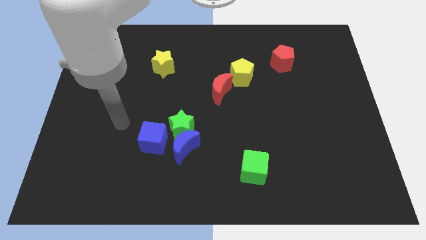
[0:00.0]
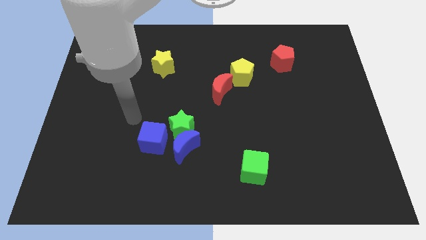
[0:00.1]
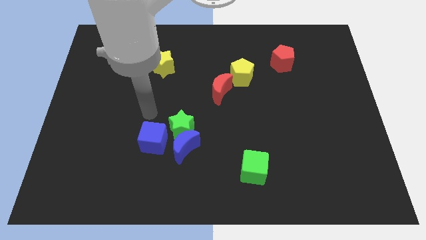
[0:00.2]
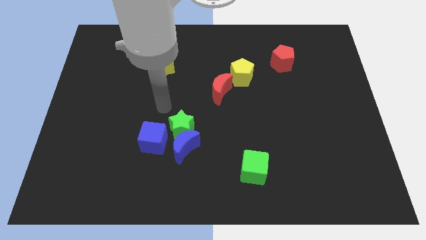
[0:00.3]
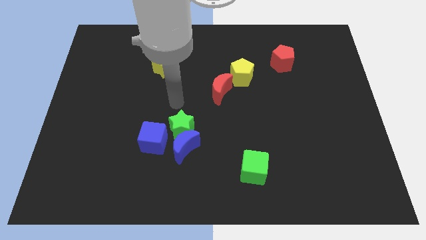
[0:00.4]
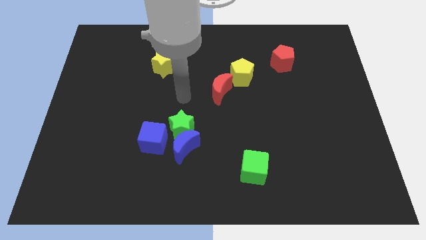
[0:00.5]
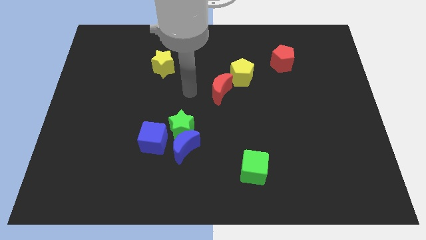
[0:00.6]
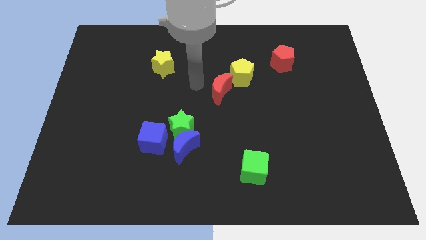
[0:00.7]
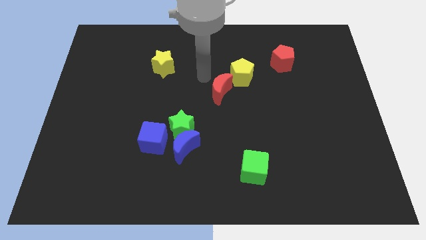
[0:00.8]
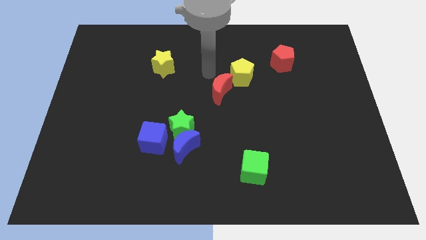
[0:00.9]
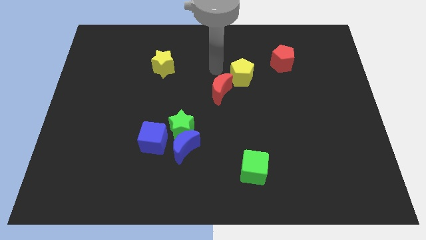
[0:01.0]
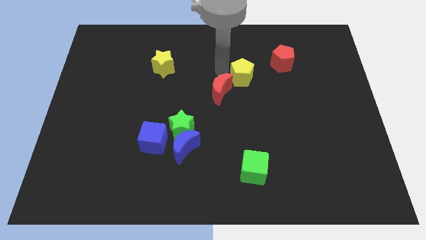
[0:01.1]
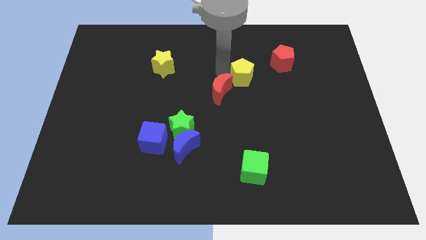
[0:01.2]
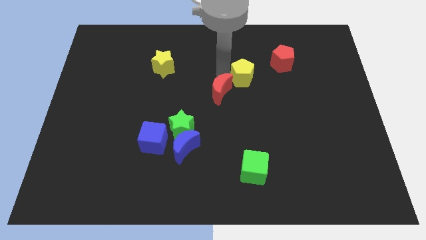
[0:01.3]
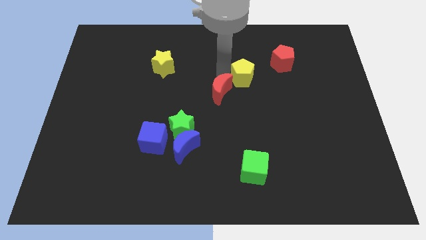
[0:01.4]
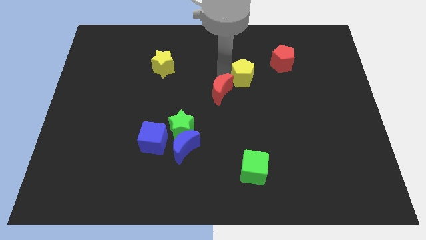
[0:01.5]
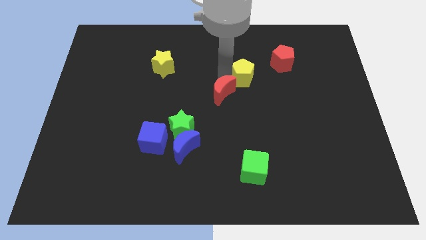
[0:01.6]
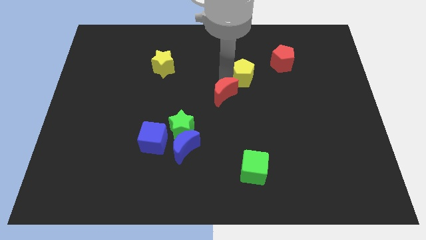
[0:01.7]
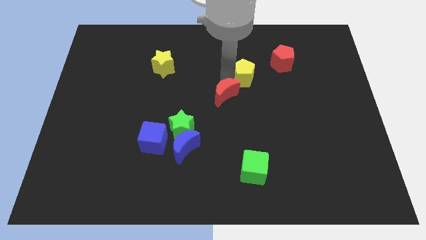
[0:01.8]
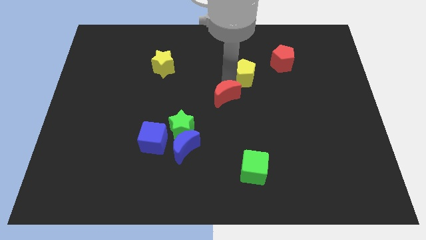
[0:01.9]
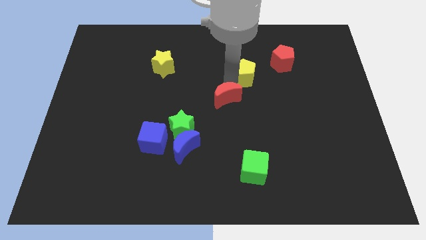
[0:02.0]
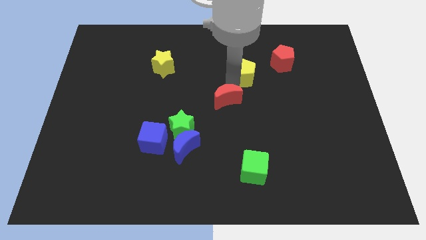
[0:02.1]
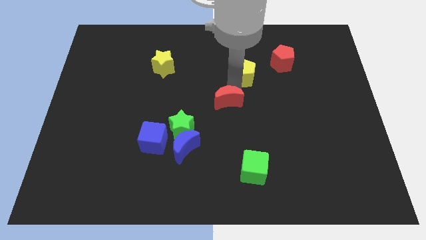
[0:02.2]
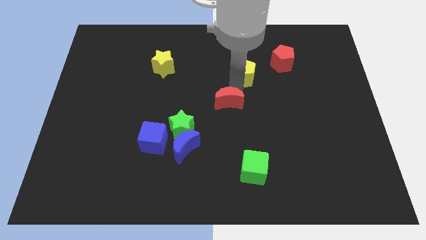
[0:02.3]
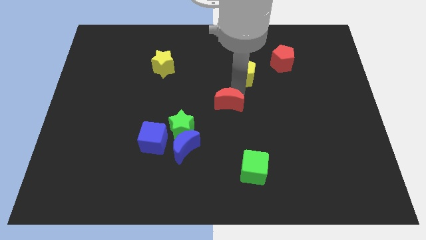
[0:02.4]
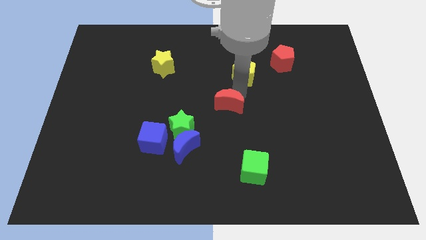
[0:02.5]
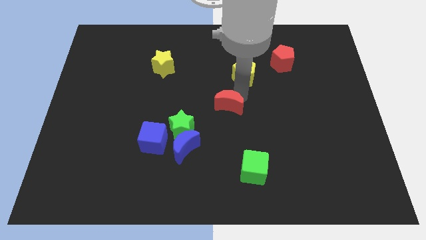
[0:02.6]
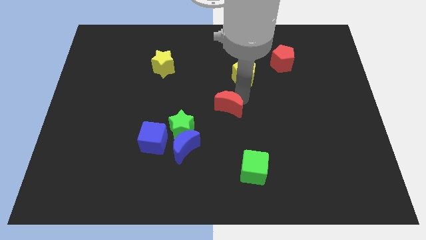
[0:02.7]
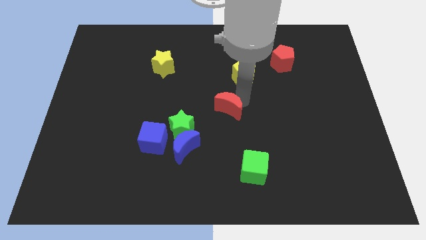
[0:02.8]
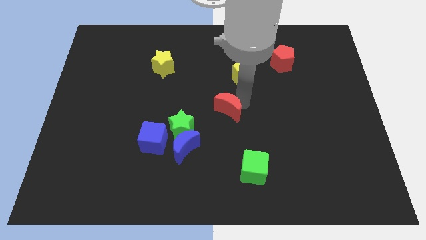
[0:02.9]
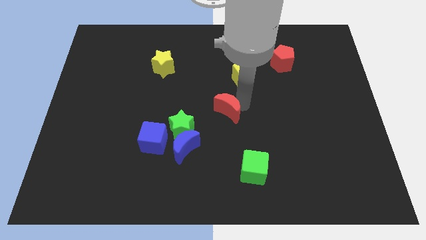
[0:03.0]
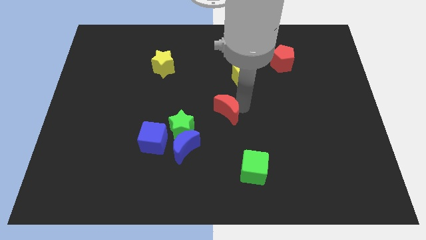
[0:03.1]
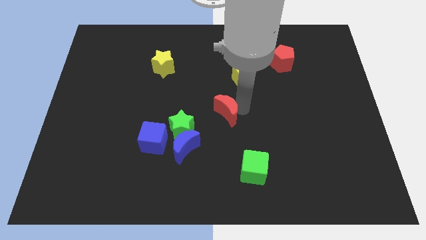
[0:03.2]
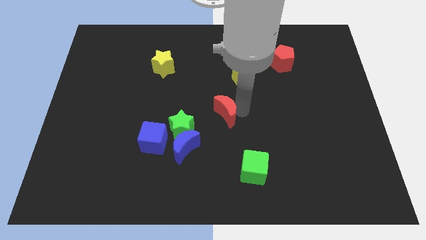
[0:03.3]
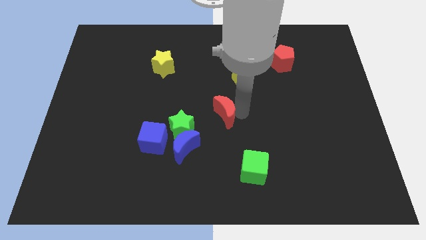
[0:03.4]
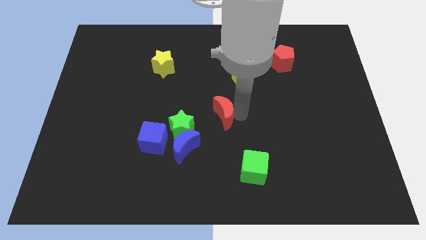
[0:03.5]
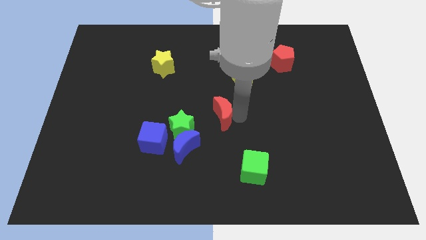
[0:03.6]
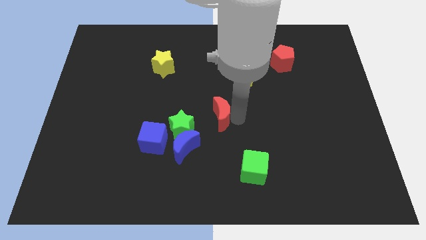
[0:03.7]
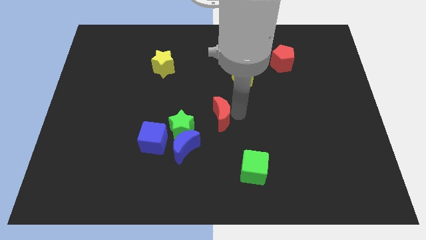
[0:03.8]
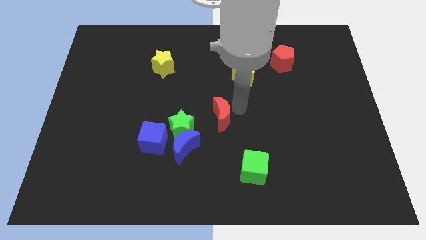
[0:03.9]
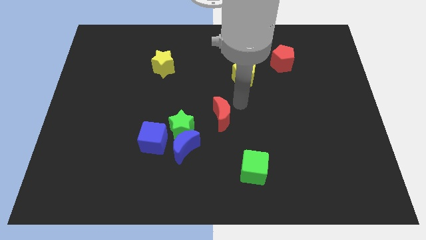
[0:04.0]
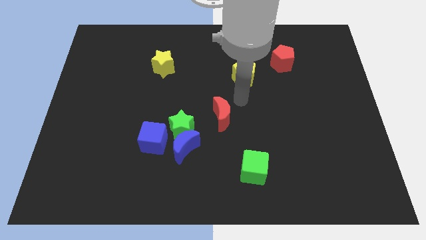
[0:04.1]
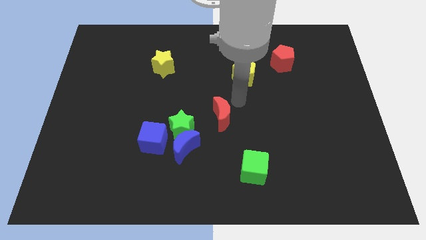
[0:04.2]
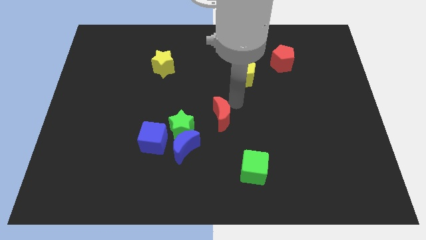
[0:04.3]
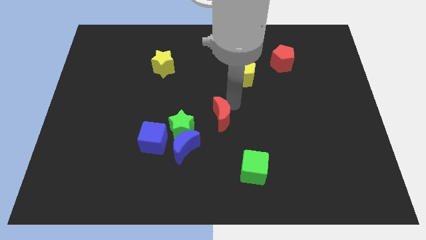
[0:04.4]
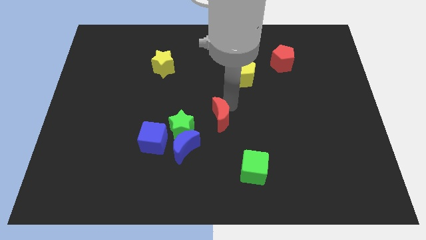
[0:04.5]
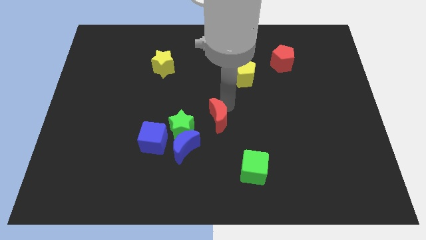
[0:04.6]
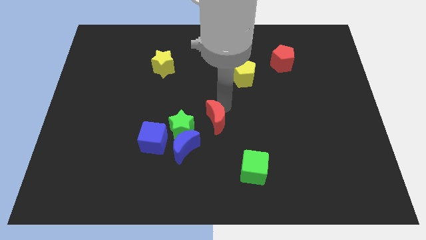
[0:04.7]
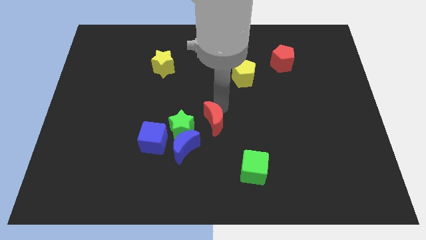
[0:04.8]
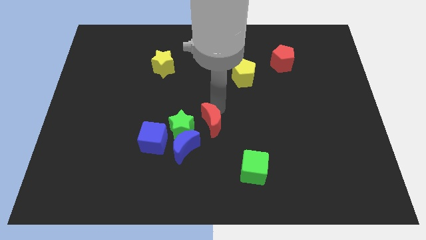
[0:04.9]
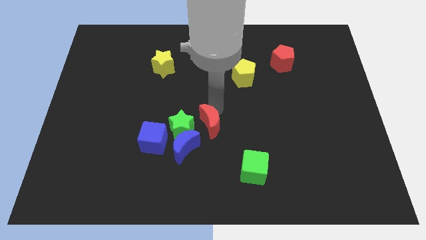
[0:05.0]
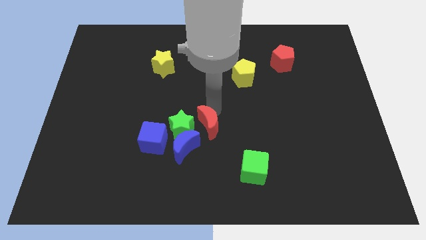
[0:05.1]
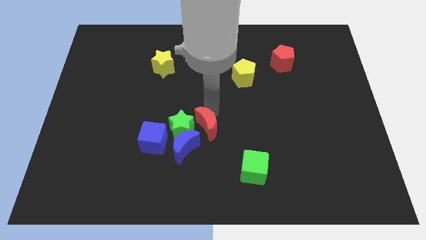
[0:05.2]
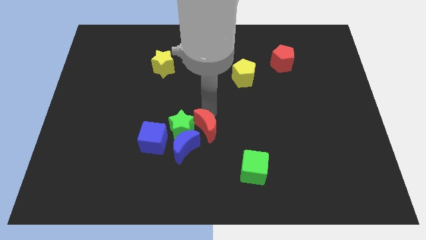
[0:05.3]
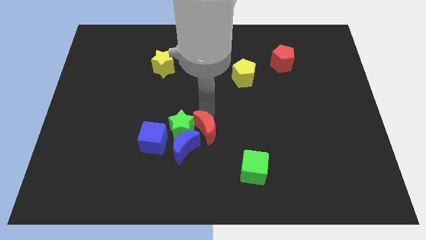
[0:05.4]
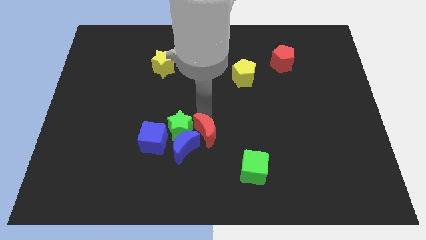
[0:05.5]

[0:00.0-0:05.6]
move the red moon towards the blue moon

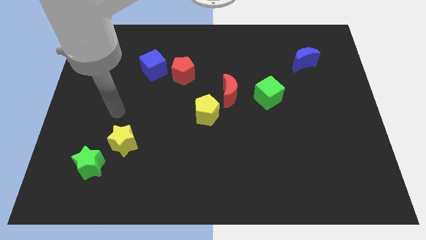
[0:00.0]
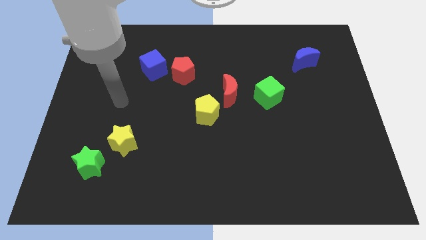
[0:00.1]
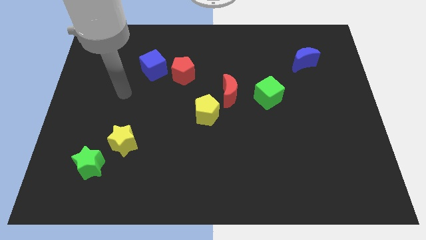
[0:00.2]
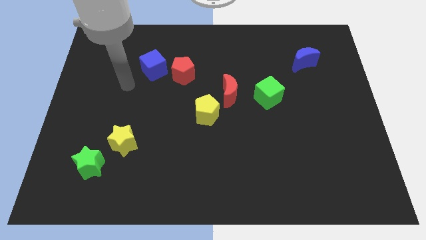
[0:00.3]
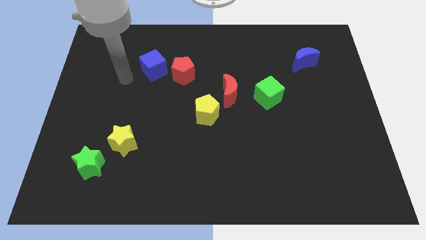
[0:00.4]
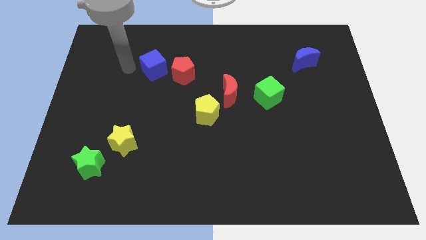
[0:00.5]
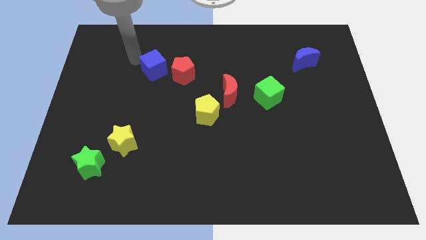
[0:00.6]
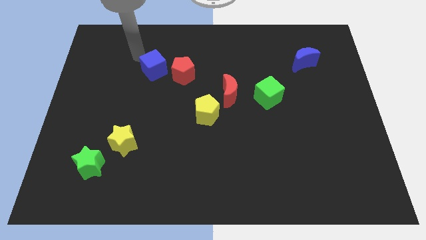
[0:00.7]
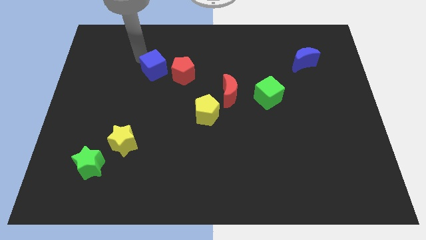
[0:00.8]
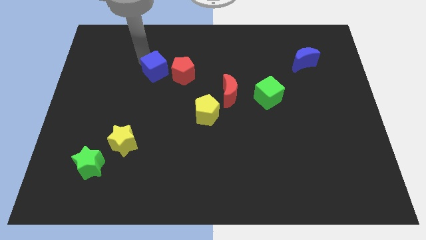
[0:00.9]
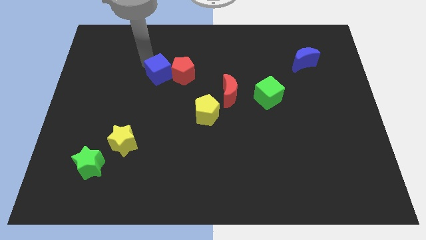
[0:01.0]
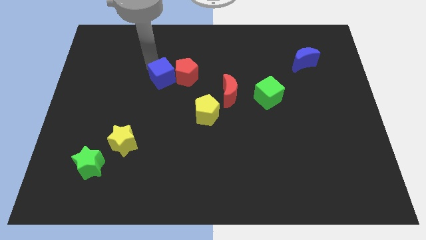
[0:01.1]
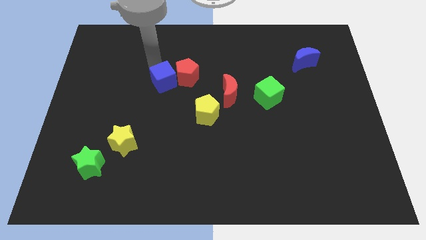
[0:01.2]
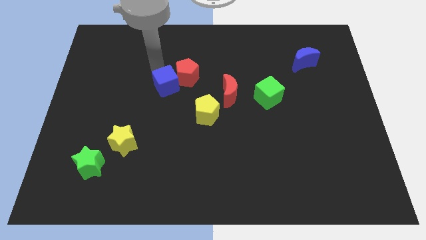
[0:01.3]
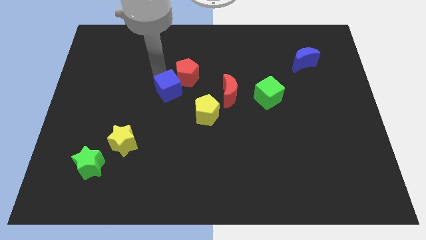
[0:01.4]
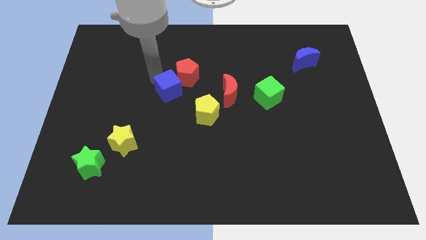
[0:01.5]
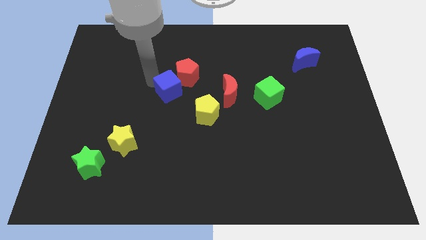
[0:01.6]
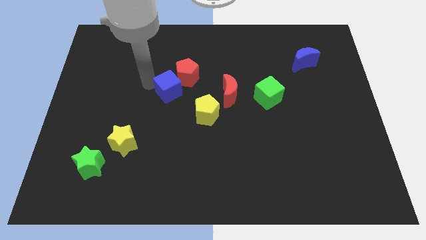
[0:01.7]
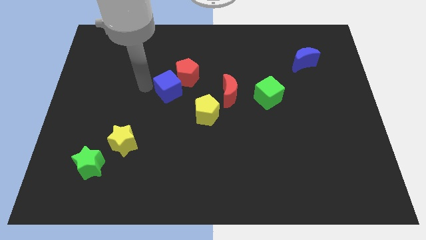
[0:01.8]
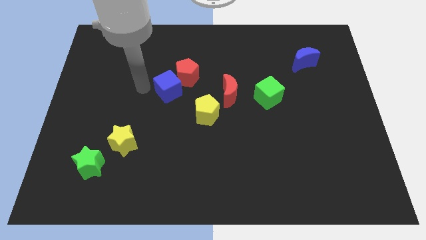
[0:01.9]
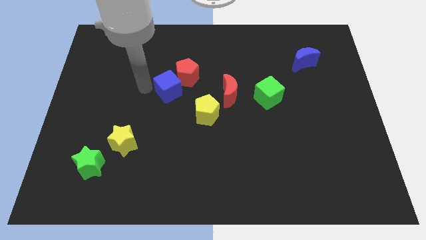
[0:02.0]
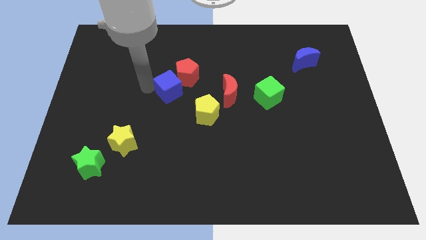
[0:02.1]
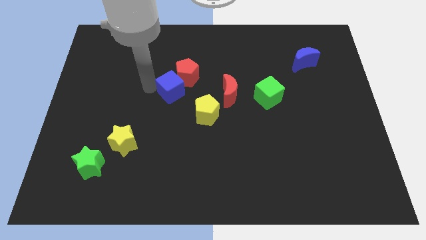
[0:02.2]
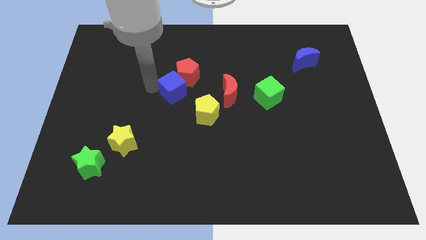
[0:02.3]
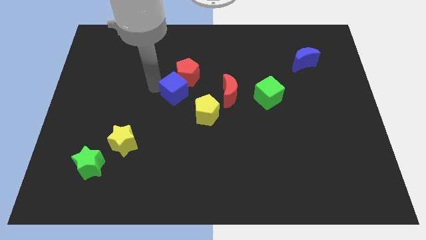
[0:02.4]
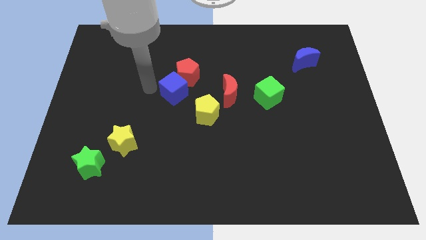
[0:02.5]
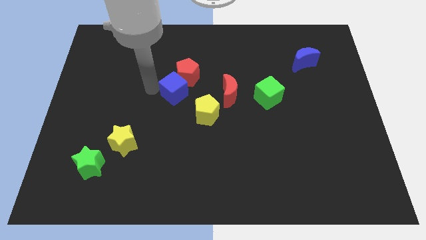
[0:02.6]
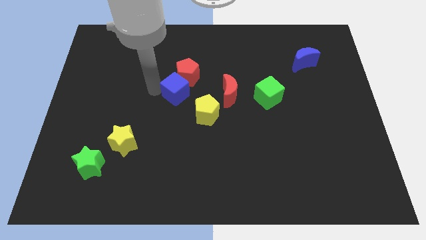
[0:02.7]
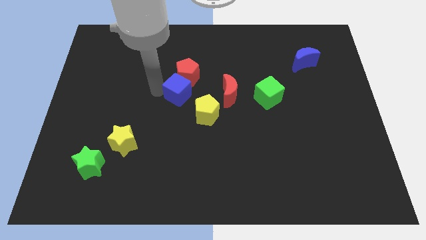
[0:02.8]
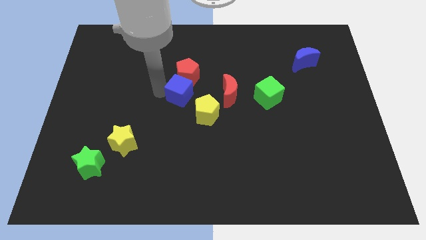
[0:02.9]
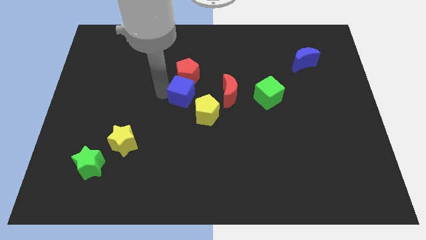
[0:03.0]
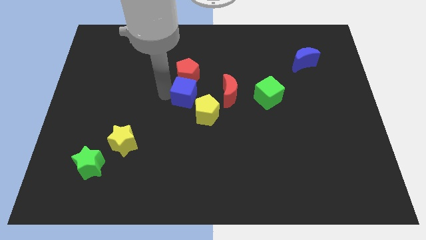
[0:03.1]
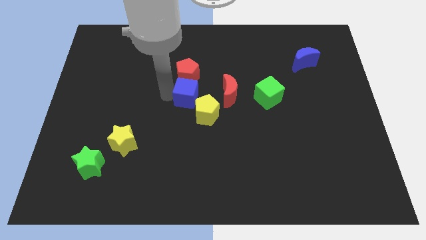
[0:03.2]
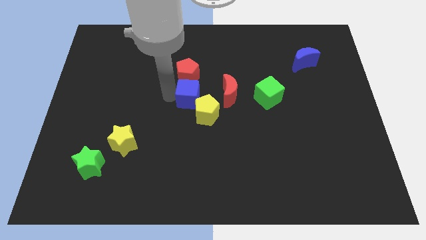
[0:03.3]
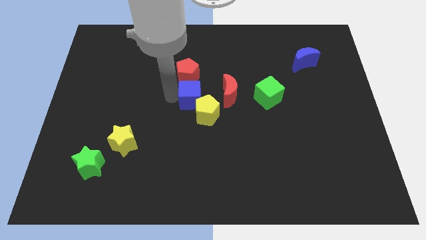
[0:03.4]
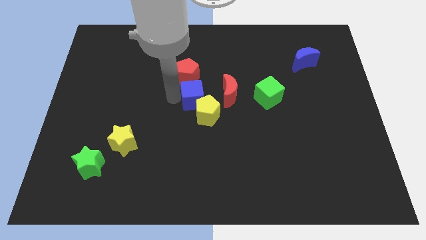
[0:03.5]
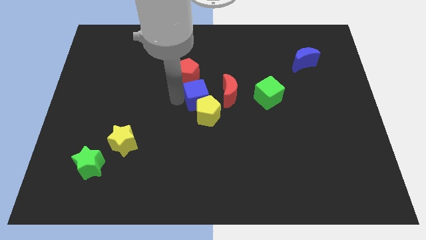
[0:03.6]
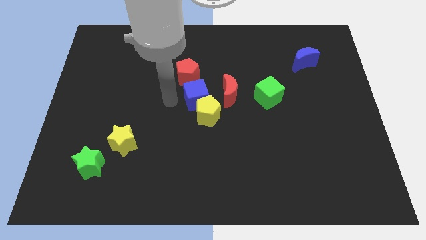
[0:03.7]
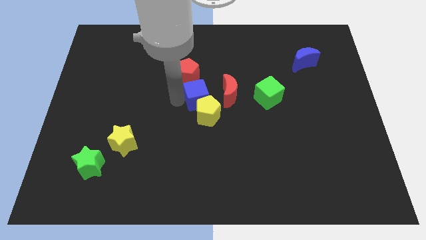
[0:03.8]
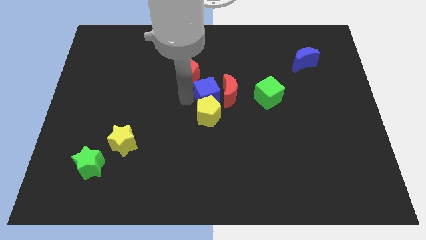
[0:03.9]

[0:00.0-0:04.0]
move the blue cube close to the red moon
